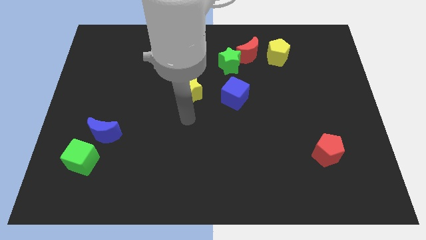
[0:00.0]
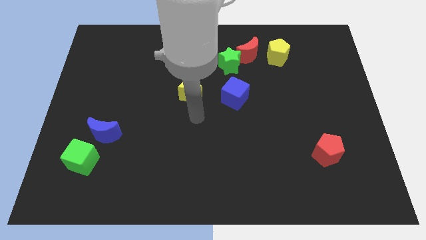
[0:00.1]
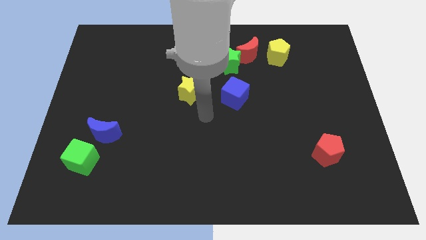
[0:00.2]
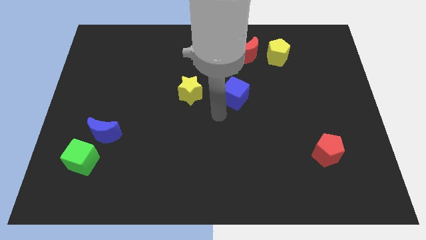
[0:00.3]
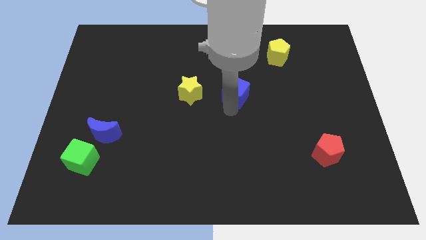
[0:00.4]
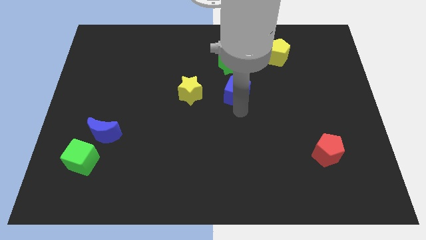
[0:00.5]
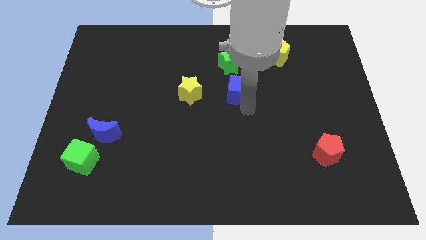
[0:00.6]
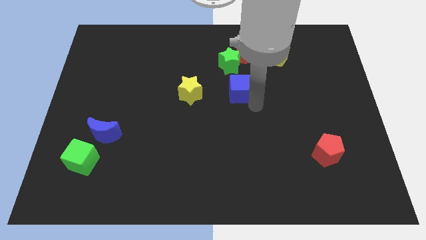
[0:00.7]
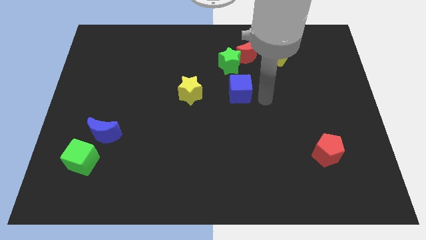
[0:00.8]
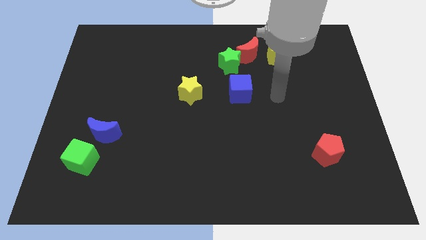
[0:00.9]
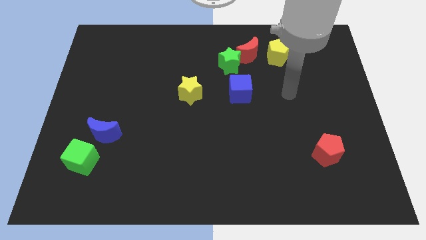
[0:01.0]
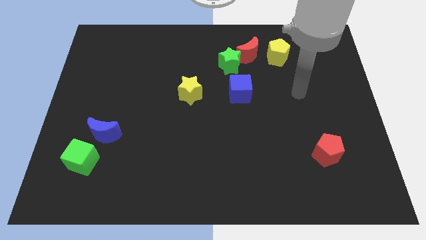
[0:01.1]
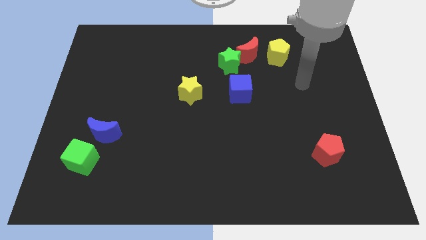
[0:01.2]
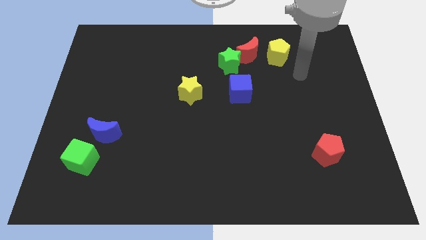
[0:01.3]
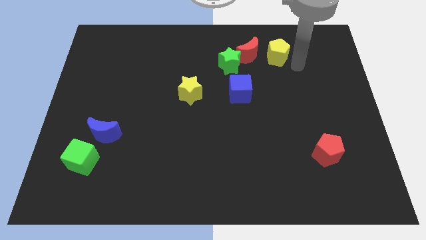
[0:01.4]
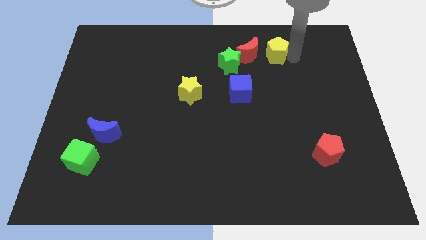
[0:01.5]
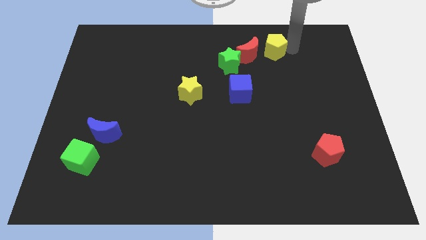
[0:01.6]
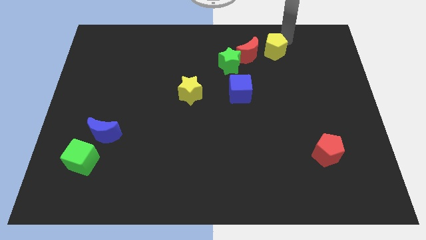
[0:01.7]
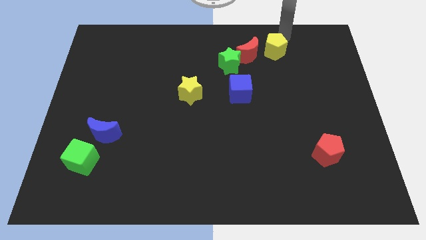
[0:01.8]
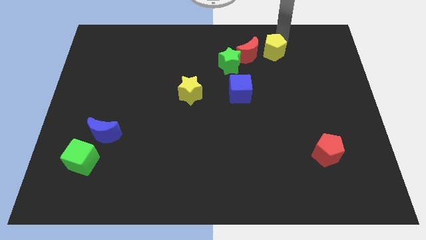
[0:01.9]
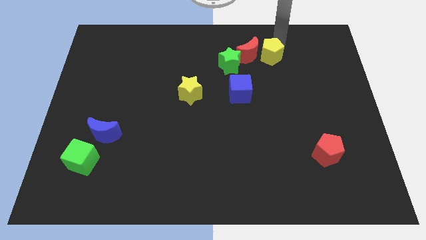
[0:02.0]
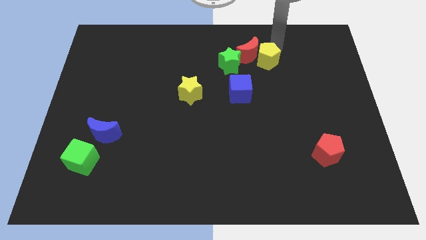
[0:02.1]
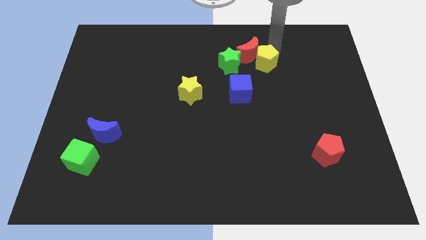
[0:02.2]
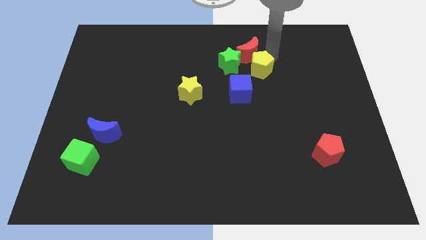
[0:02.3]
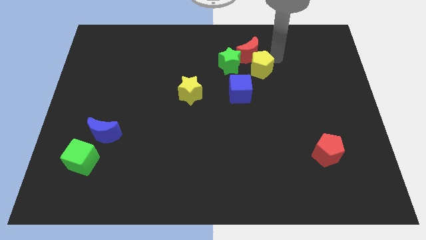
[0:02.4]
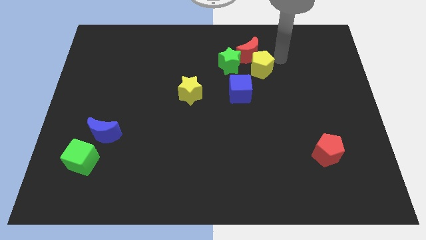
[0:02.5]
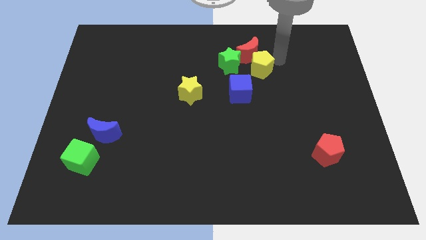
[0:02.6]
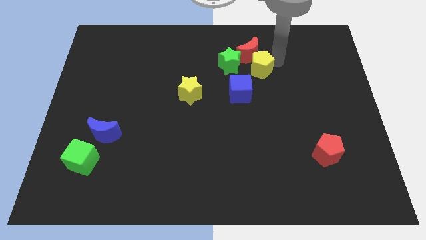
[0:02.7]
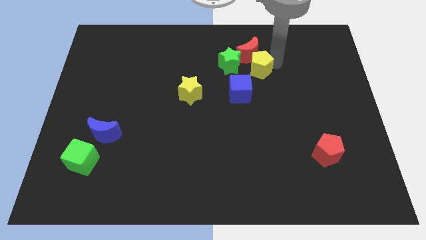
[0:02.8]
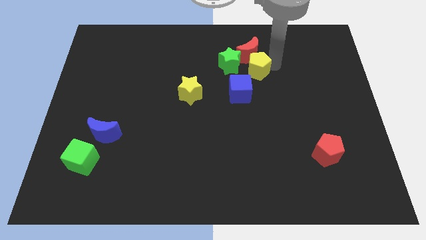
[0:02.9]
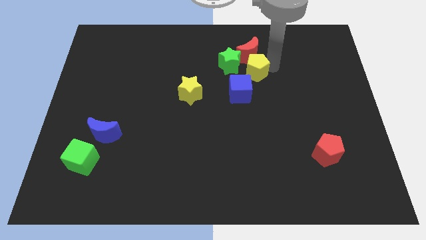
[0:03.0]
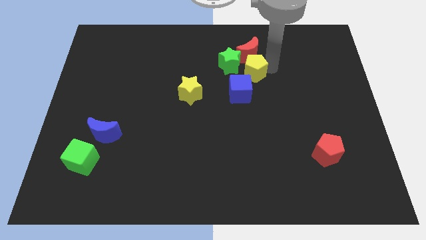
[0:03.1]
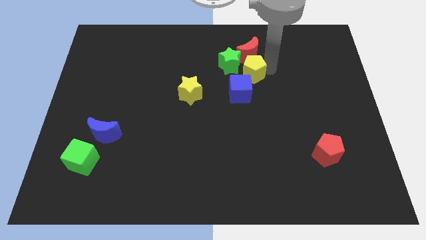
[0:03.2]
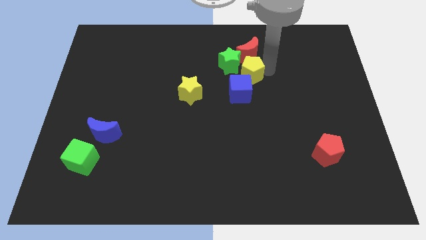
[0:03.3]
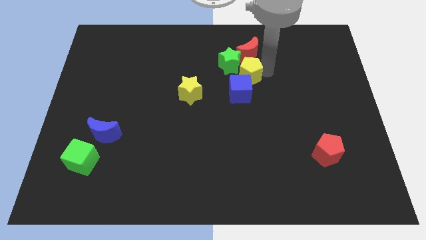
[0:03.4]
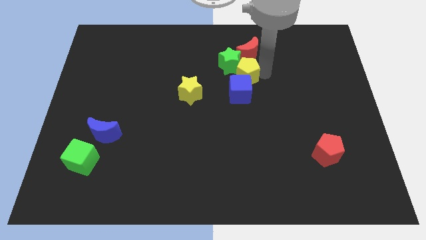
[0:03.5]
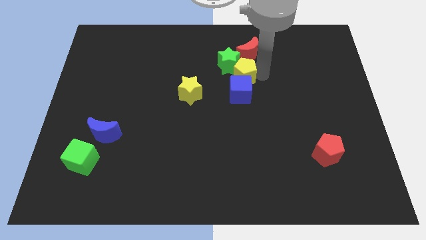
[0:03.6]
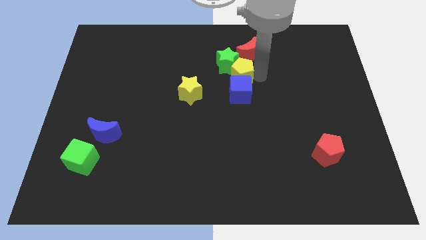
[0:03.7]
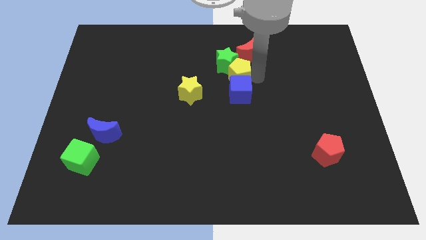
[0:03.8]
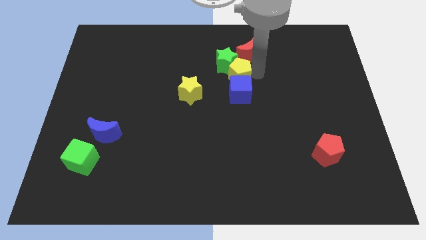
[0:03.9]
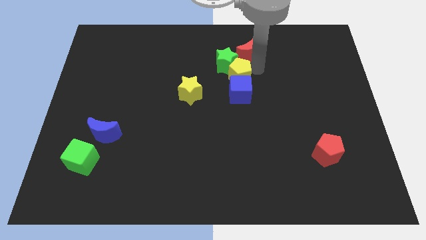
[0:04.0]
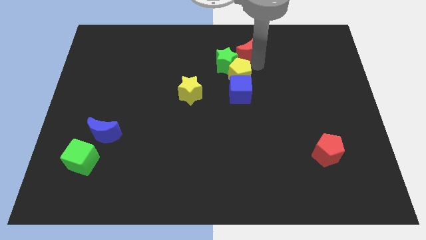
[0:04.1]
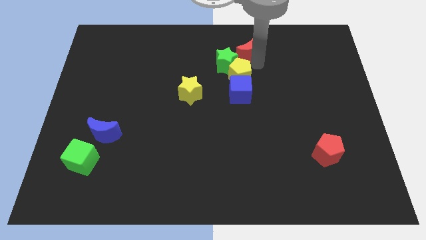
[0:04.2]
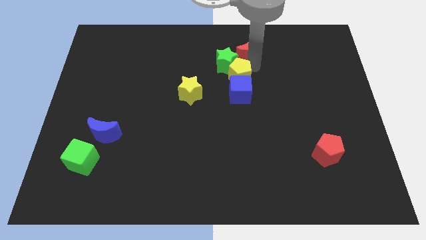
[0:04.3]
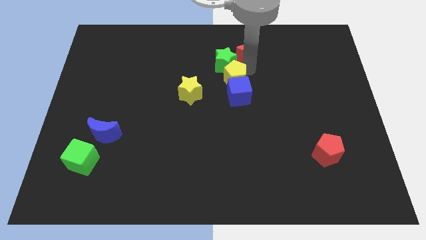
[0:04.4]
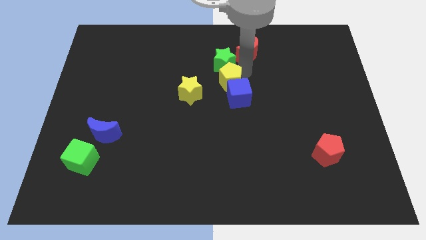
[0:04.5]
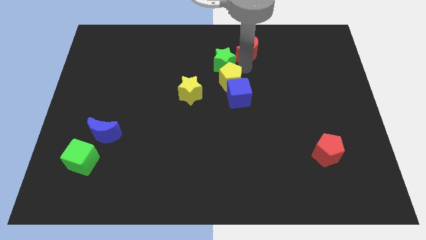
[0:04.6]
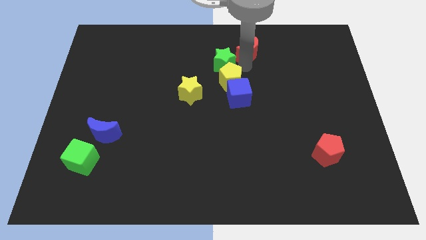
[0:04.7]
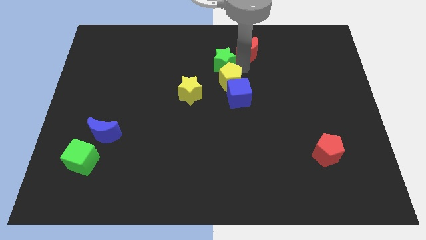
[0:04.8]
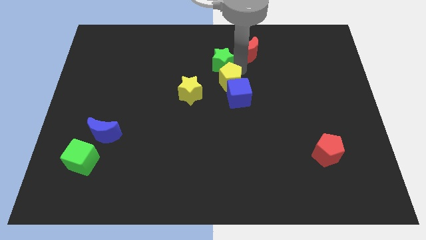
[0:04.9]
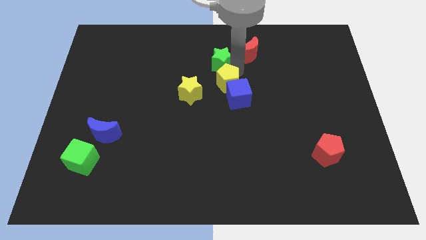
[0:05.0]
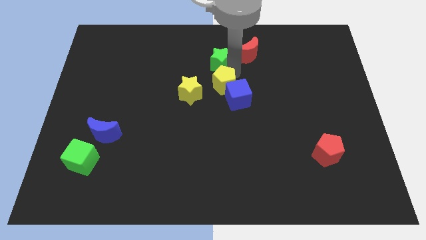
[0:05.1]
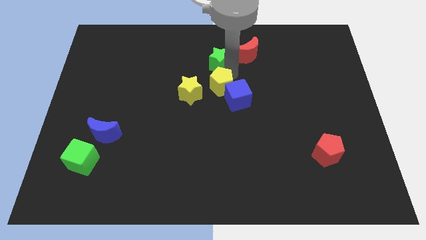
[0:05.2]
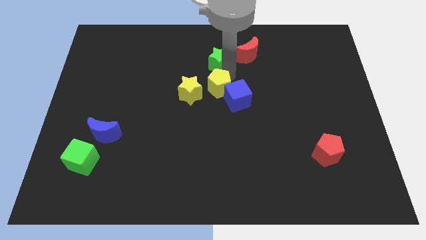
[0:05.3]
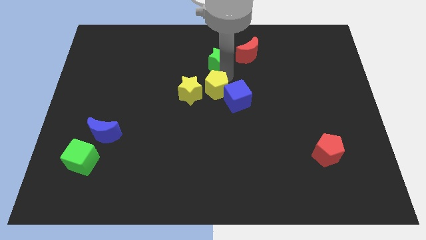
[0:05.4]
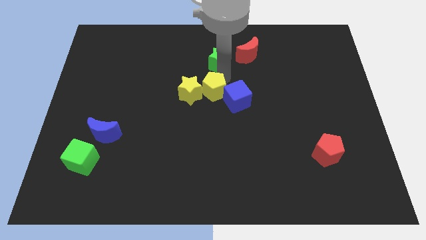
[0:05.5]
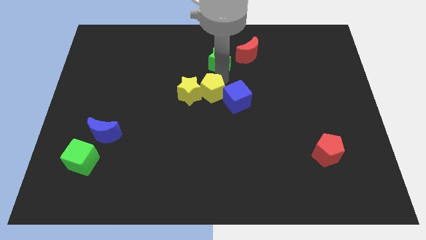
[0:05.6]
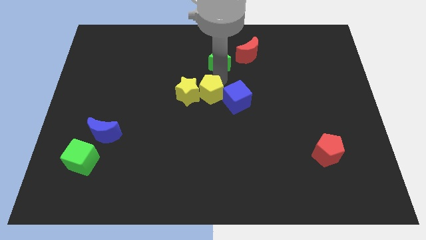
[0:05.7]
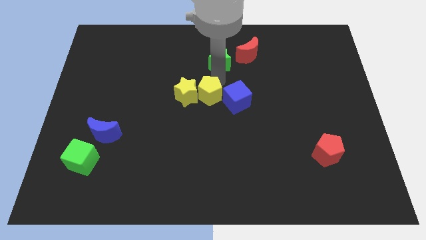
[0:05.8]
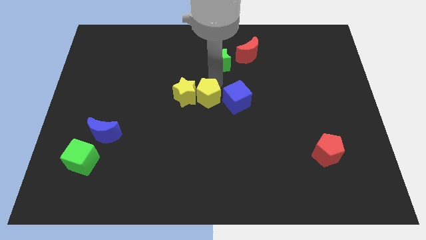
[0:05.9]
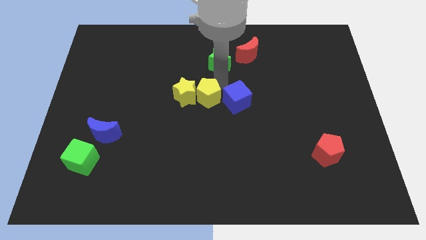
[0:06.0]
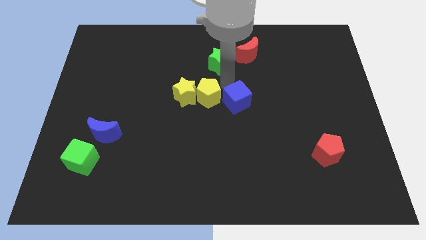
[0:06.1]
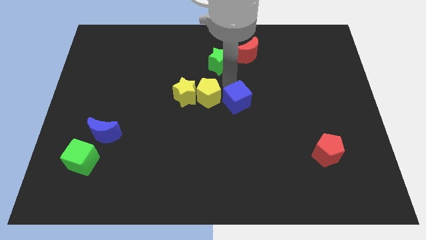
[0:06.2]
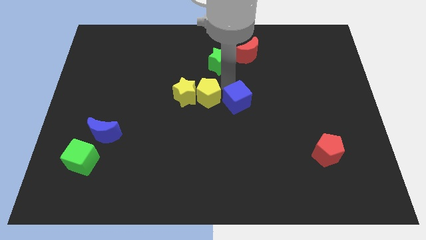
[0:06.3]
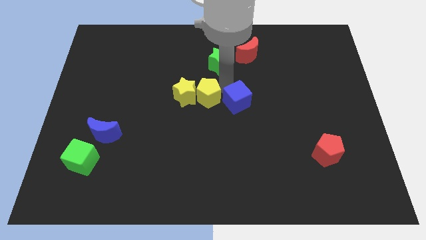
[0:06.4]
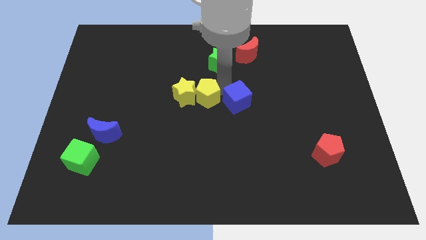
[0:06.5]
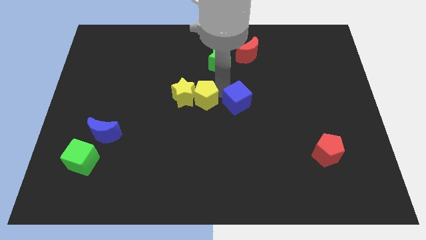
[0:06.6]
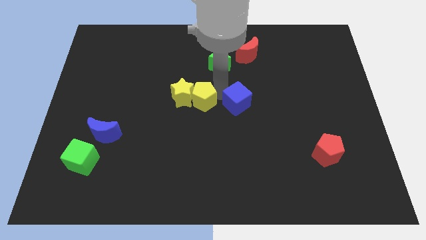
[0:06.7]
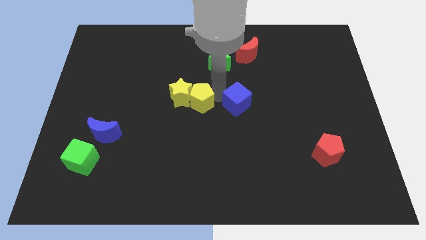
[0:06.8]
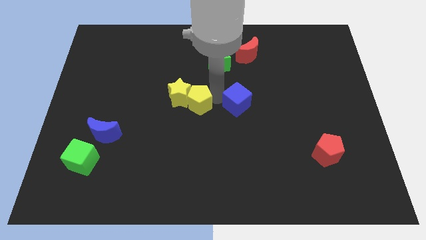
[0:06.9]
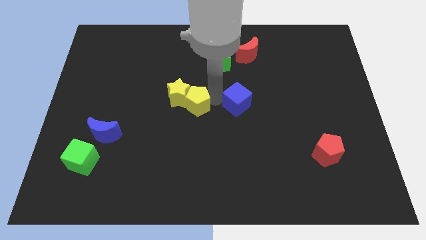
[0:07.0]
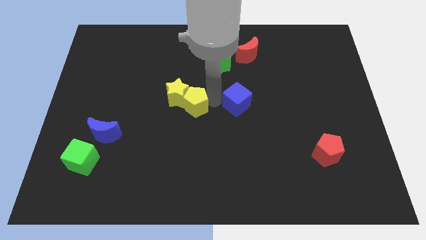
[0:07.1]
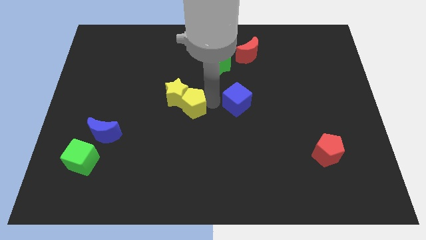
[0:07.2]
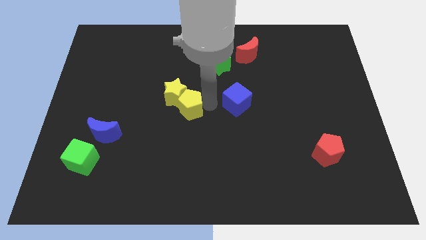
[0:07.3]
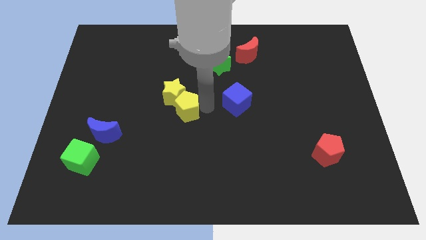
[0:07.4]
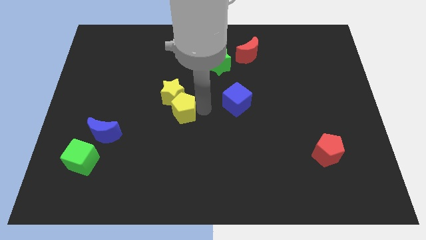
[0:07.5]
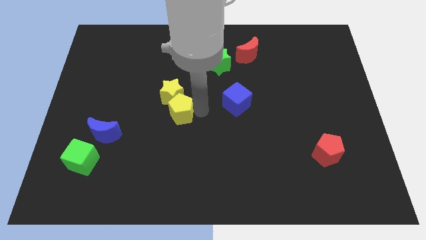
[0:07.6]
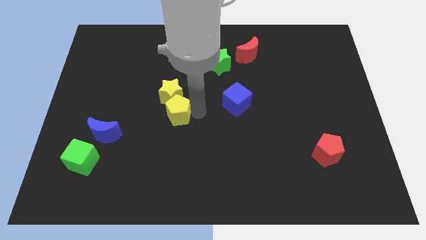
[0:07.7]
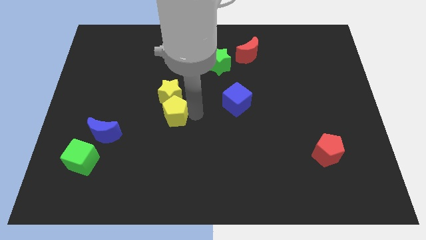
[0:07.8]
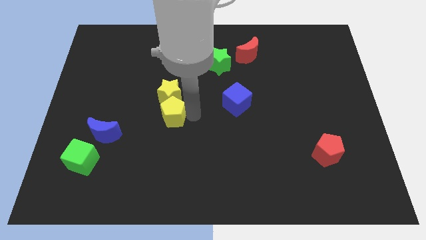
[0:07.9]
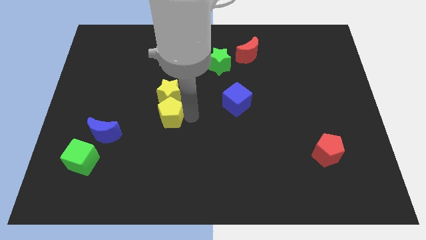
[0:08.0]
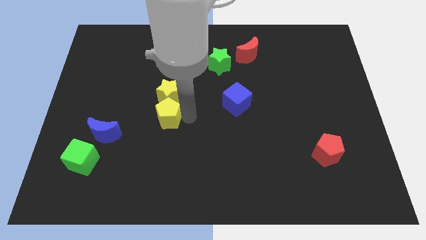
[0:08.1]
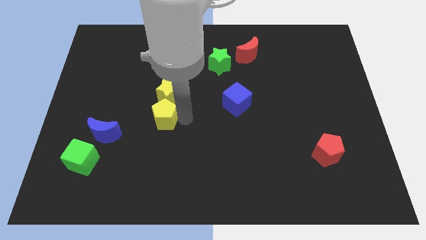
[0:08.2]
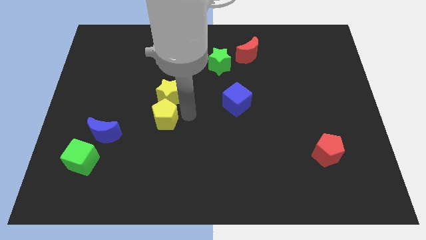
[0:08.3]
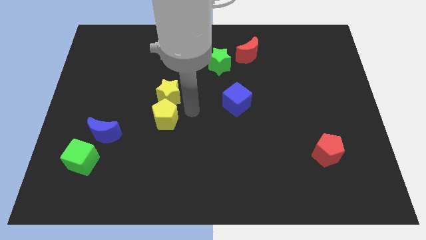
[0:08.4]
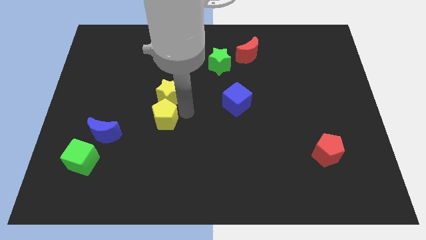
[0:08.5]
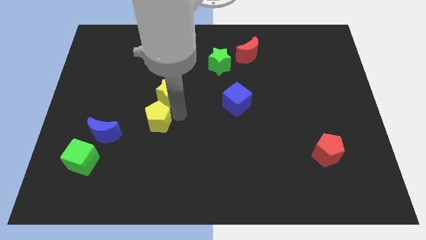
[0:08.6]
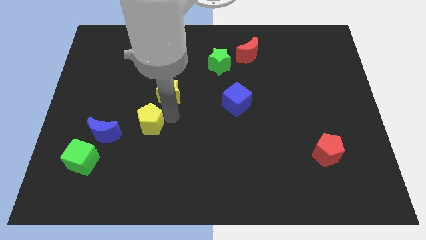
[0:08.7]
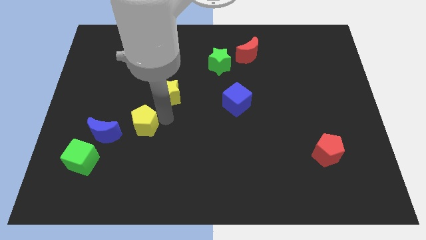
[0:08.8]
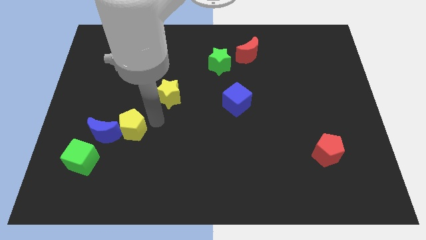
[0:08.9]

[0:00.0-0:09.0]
slide the yellow pentagon to the top right side of the green cube
